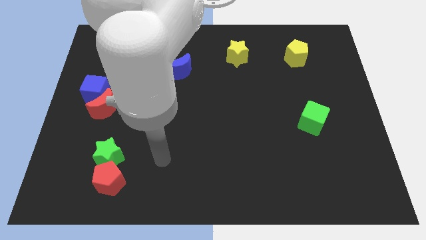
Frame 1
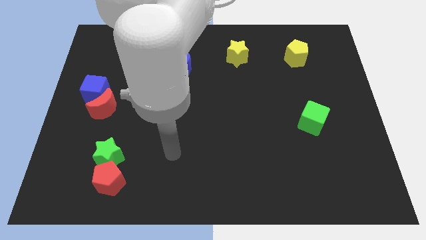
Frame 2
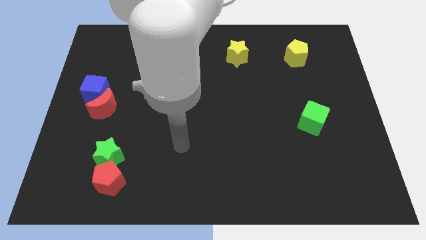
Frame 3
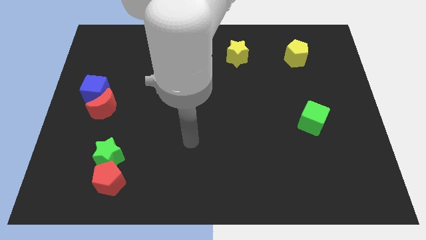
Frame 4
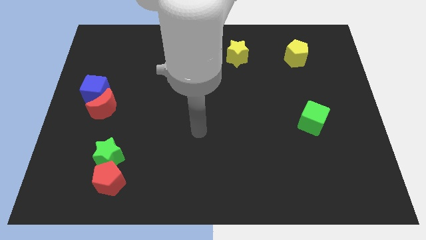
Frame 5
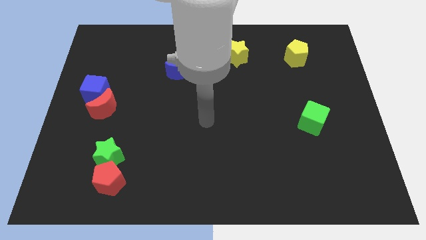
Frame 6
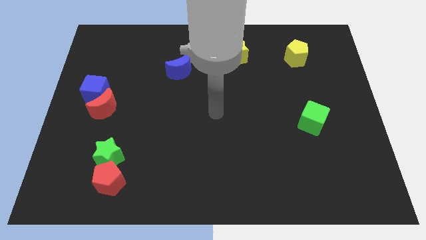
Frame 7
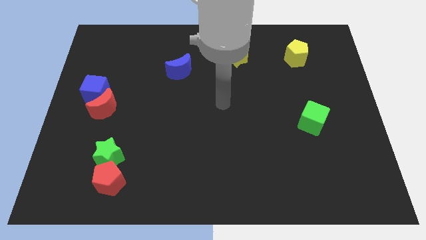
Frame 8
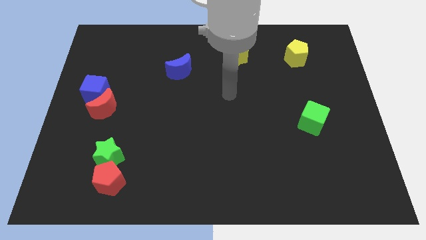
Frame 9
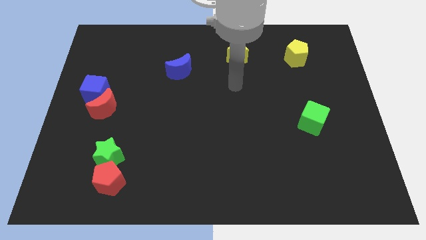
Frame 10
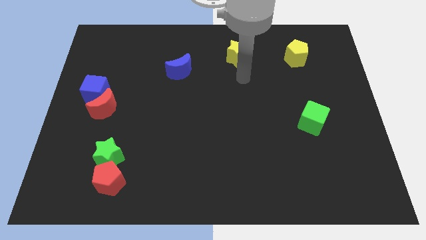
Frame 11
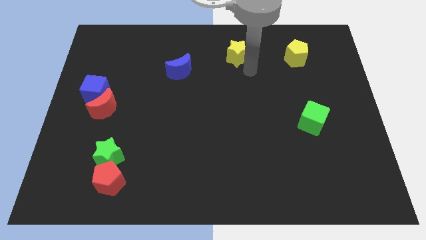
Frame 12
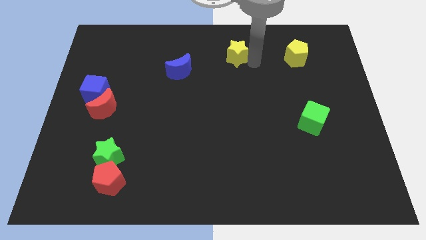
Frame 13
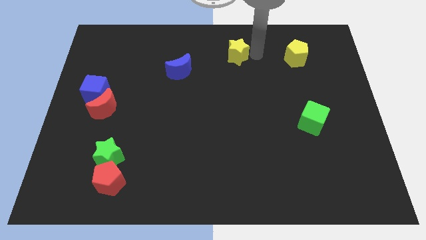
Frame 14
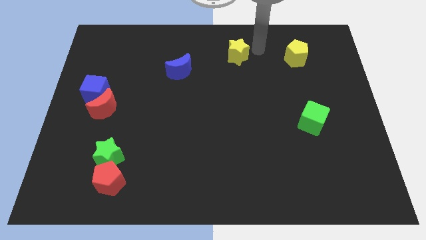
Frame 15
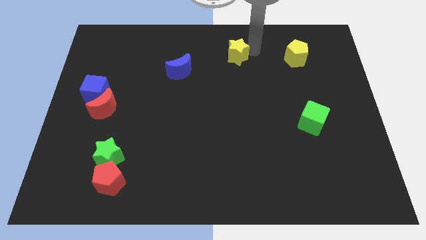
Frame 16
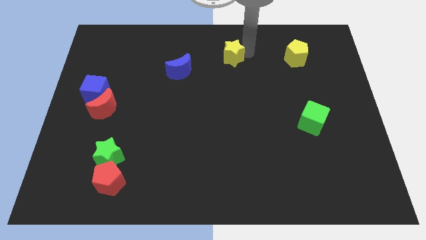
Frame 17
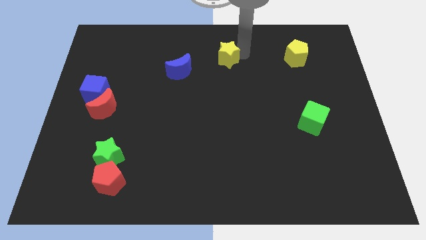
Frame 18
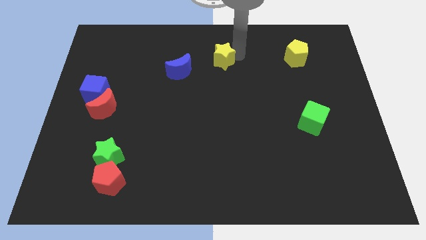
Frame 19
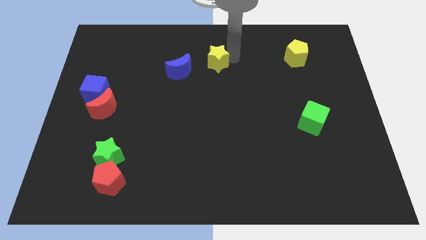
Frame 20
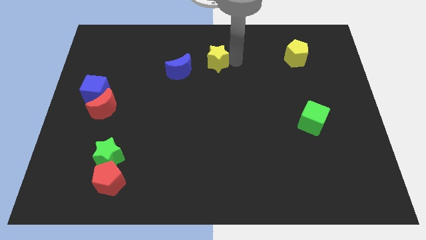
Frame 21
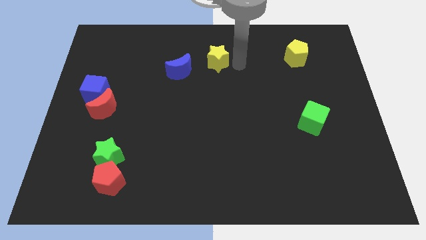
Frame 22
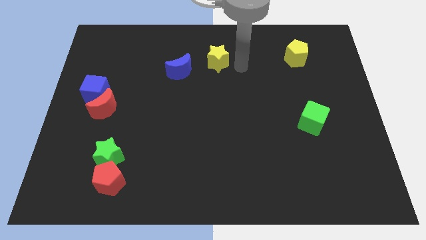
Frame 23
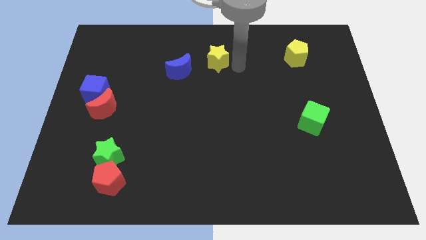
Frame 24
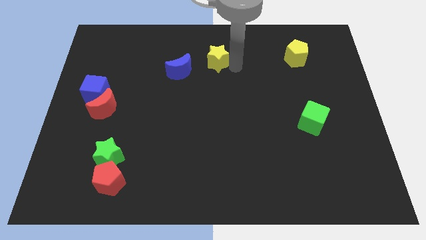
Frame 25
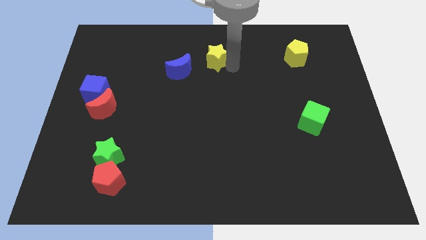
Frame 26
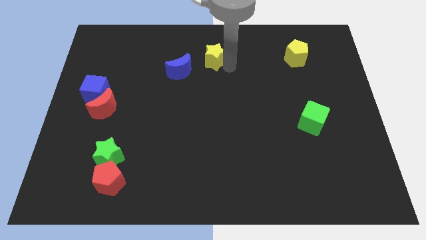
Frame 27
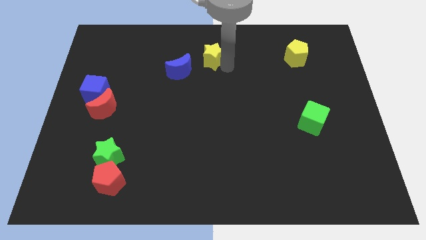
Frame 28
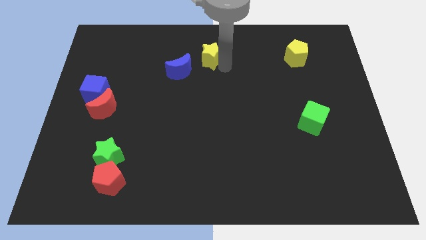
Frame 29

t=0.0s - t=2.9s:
slightly move the yellow star left

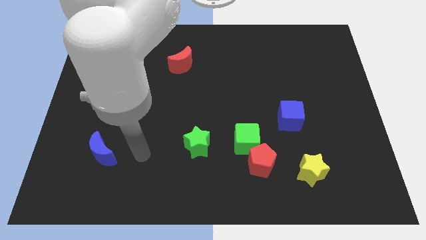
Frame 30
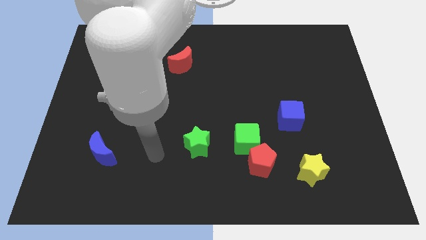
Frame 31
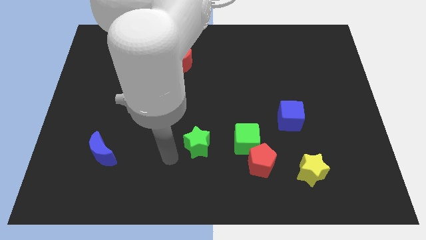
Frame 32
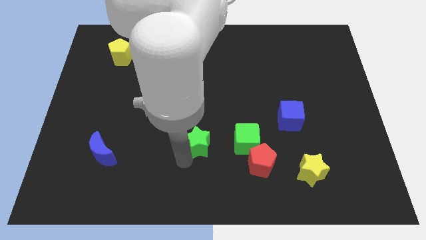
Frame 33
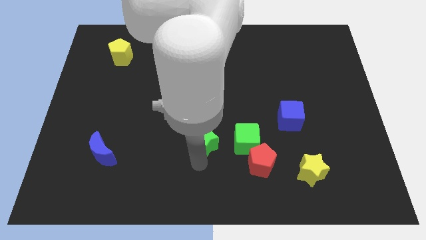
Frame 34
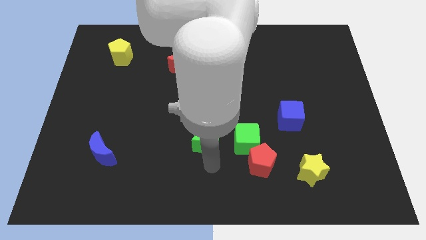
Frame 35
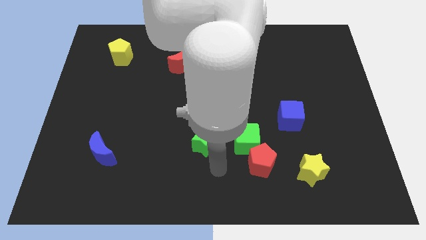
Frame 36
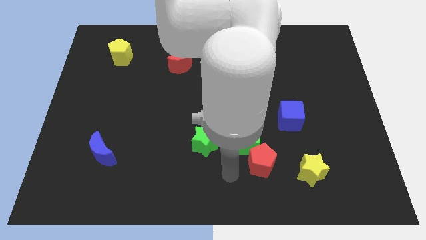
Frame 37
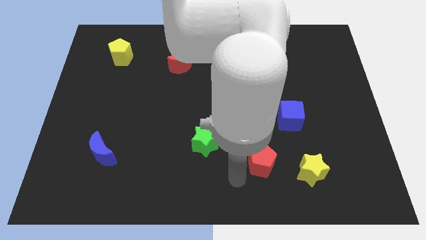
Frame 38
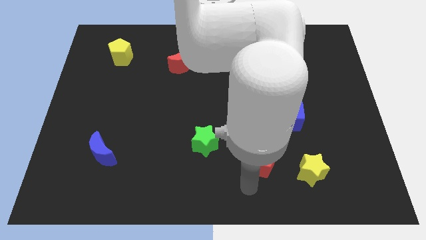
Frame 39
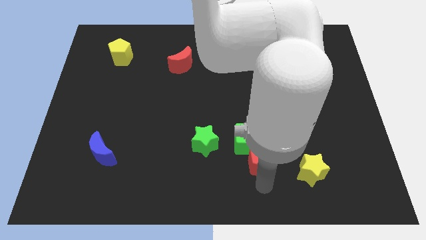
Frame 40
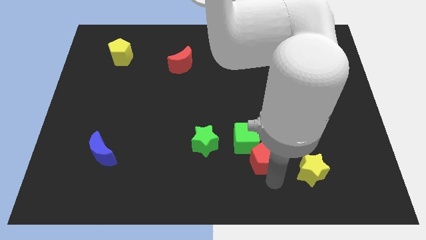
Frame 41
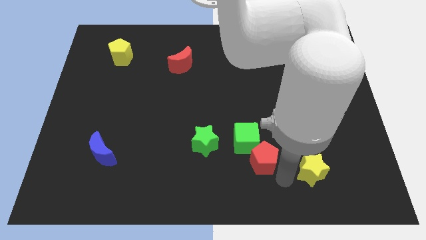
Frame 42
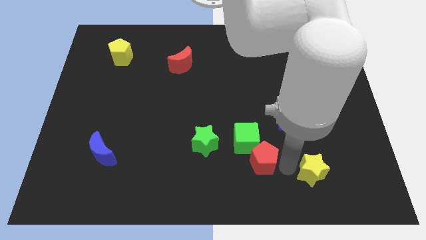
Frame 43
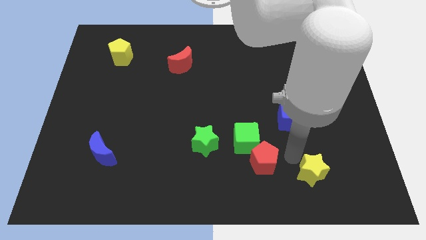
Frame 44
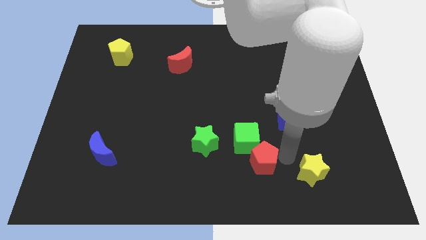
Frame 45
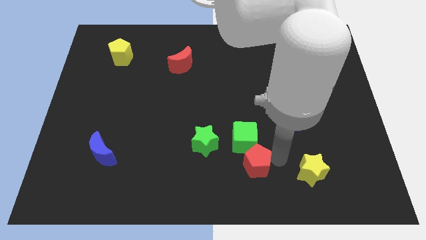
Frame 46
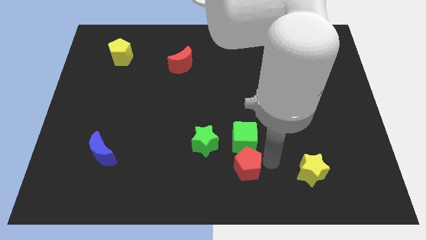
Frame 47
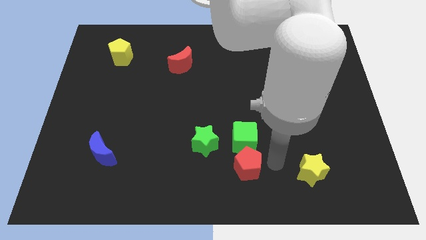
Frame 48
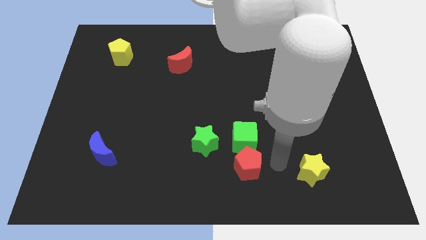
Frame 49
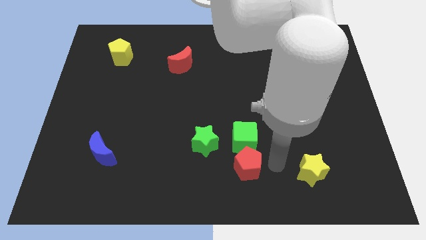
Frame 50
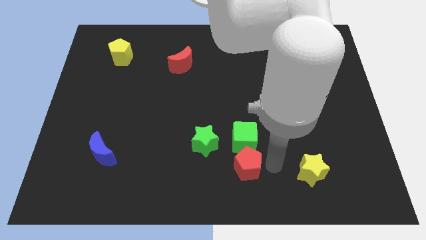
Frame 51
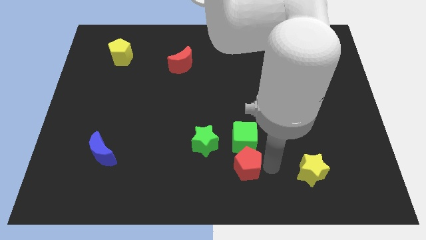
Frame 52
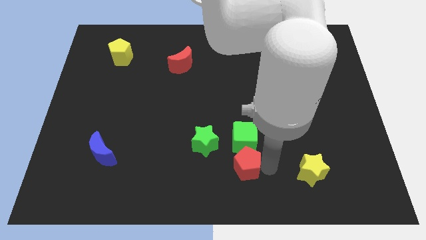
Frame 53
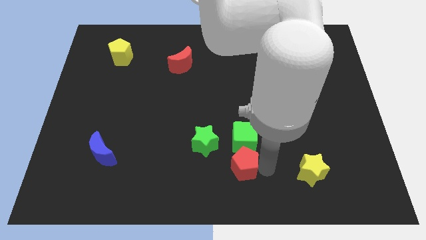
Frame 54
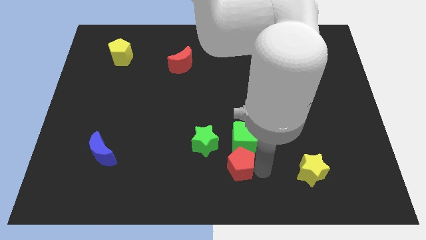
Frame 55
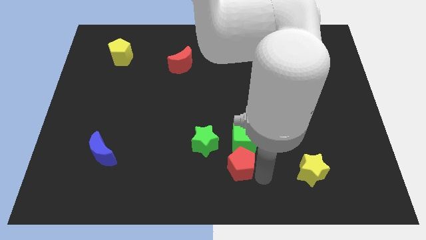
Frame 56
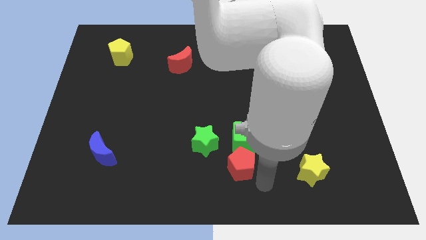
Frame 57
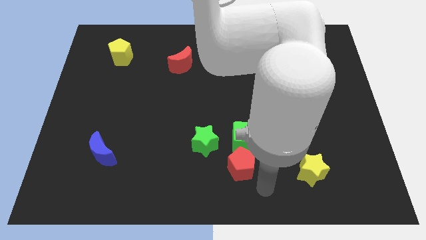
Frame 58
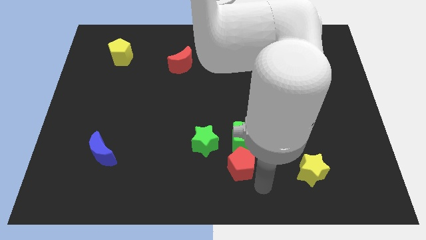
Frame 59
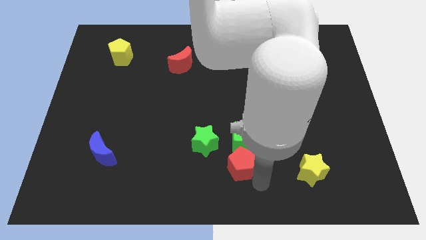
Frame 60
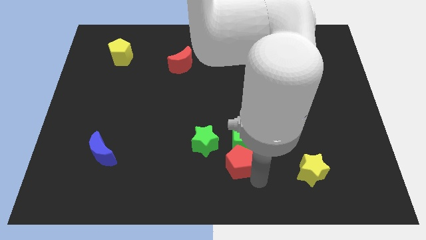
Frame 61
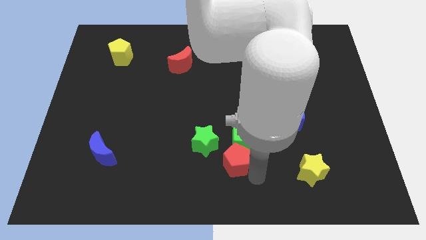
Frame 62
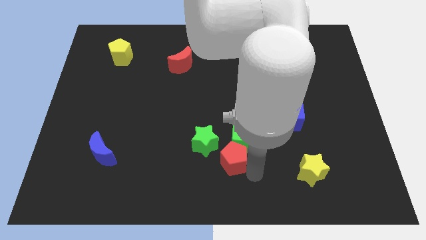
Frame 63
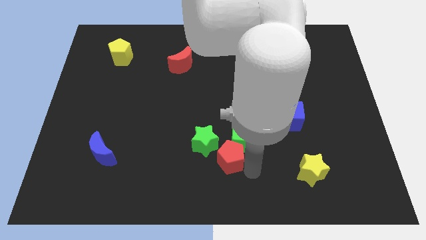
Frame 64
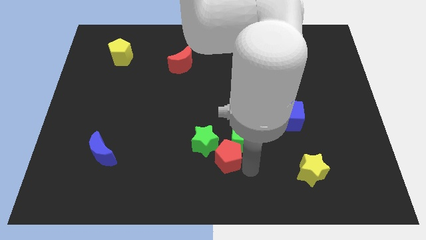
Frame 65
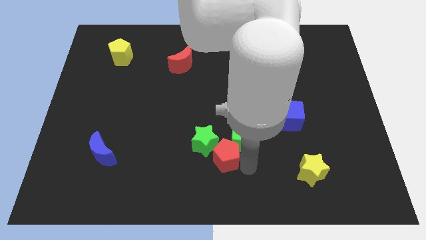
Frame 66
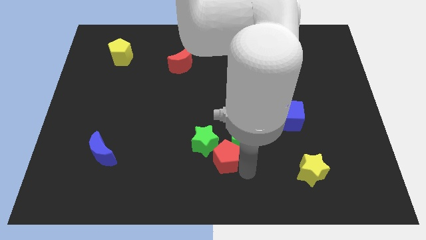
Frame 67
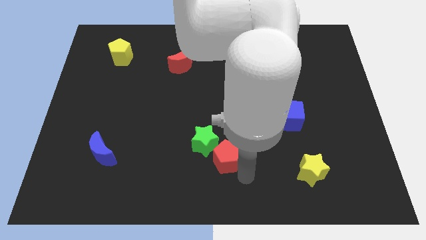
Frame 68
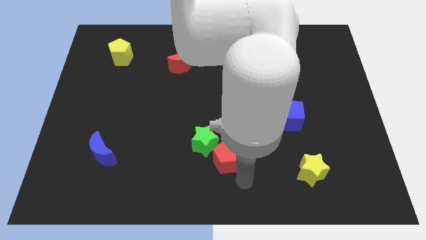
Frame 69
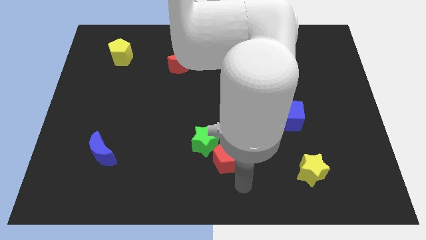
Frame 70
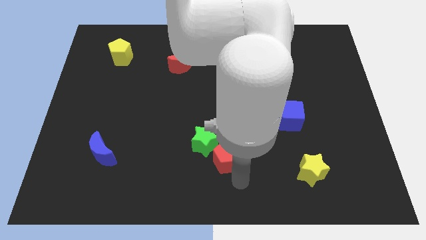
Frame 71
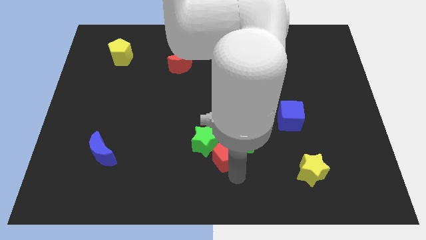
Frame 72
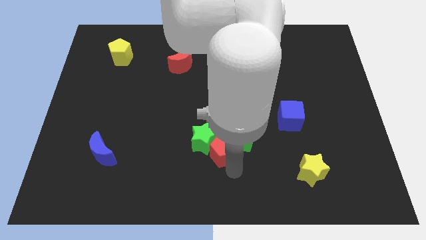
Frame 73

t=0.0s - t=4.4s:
slightly slide the red pentagon upwards and left diagonally

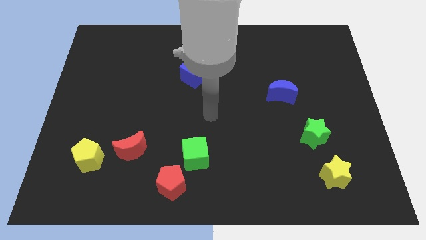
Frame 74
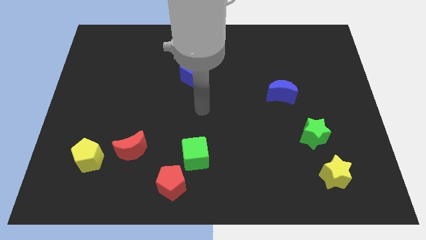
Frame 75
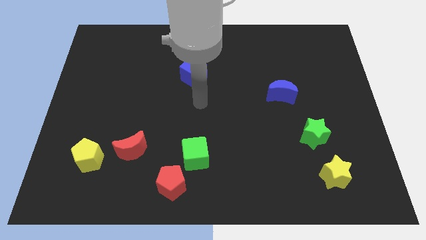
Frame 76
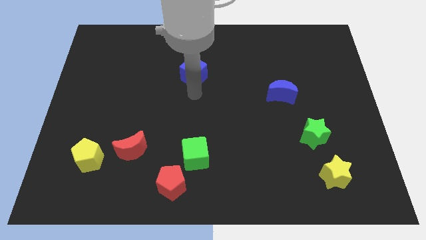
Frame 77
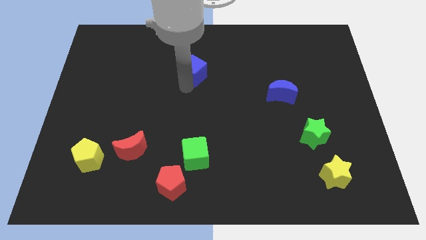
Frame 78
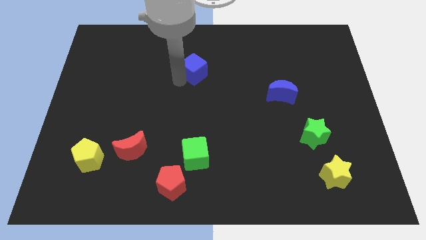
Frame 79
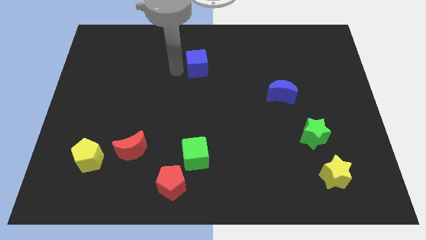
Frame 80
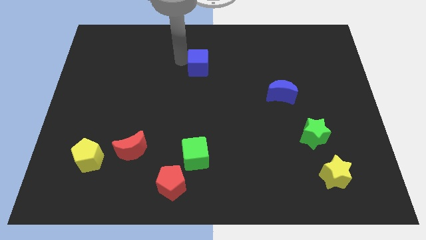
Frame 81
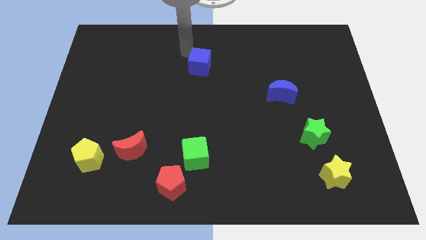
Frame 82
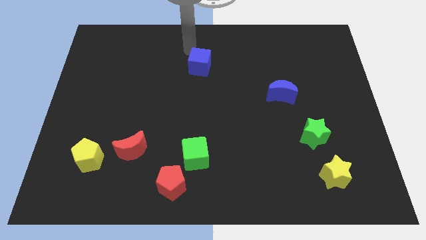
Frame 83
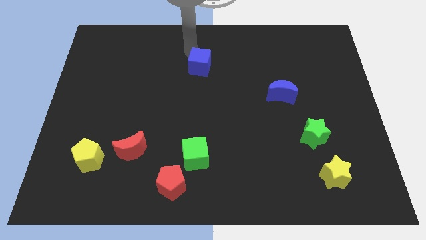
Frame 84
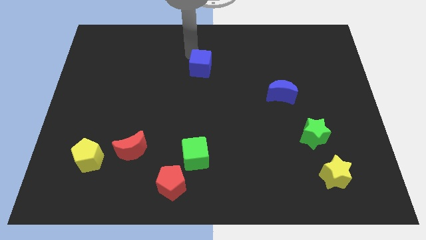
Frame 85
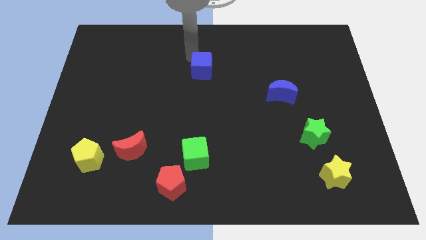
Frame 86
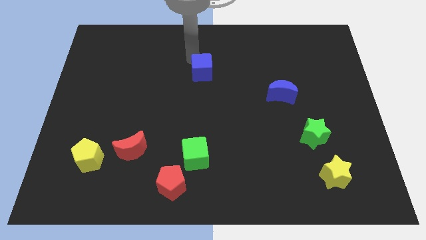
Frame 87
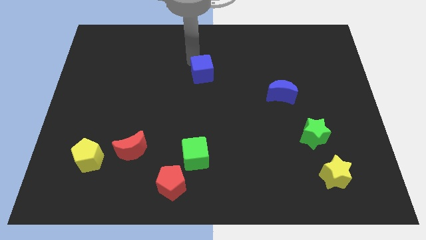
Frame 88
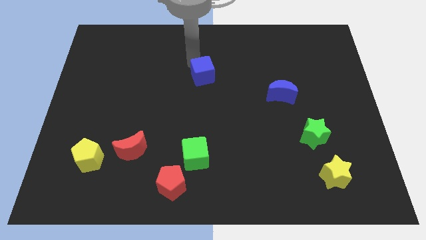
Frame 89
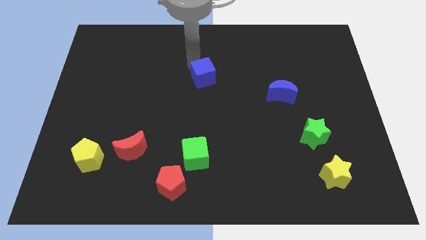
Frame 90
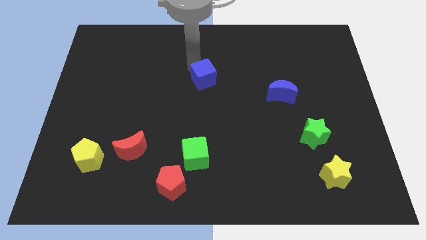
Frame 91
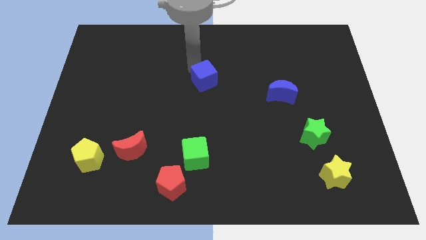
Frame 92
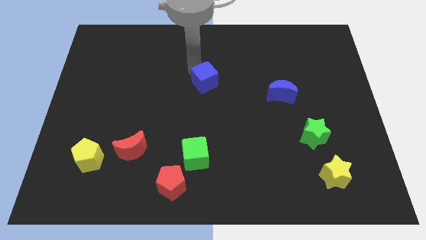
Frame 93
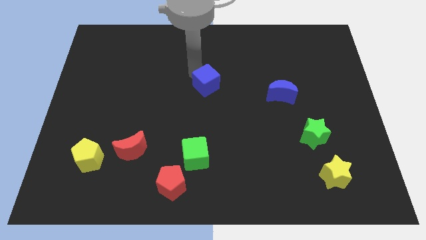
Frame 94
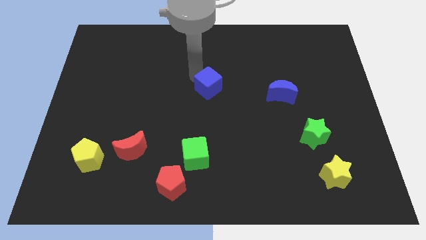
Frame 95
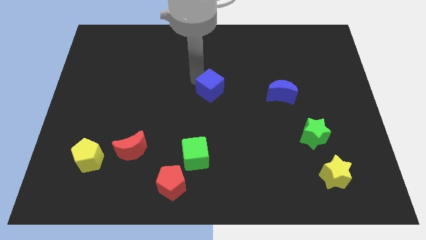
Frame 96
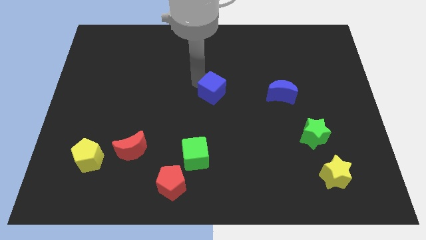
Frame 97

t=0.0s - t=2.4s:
move the blue cube downwards and to the right a little
